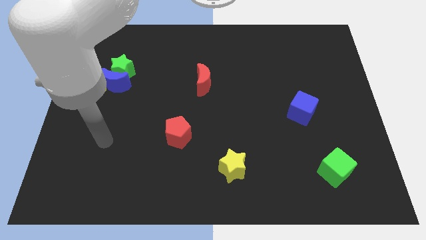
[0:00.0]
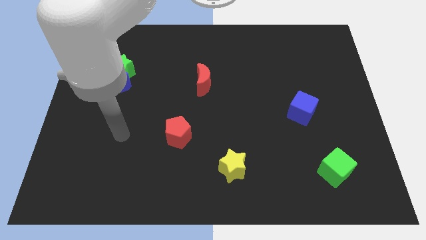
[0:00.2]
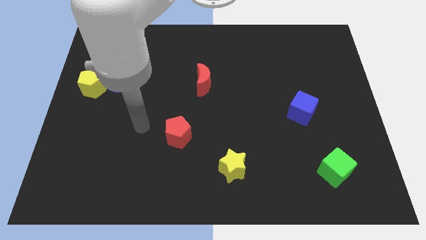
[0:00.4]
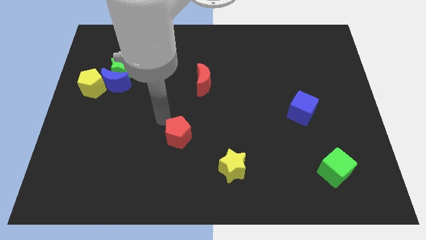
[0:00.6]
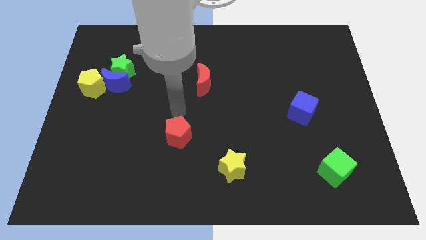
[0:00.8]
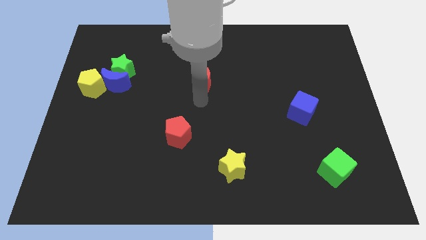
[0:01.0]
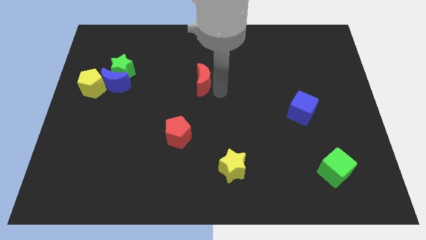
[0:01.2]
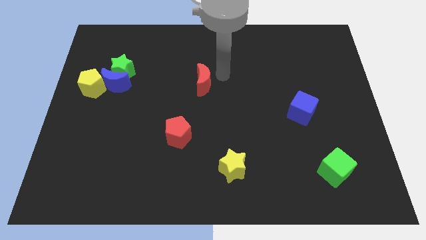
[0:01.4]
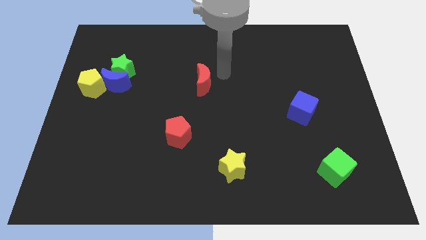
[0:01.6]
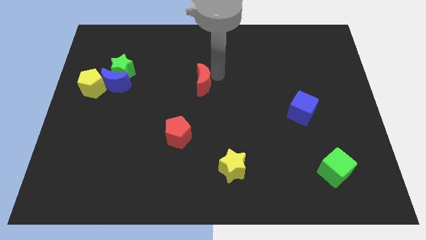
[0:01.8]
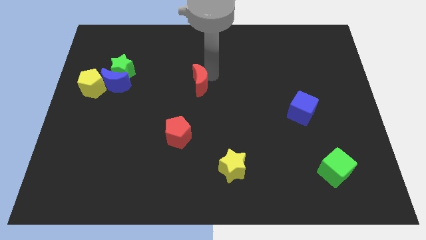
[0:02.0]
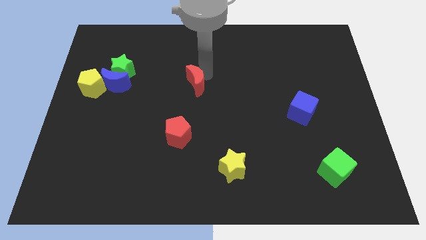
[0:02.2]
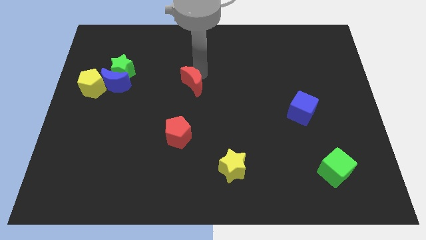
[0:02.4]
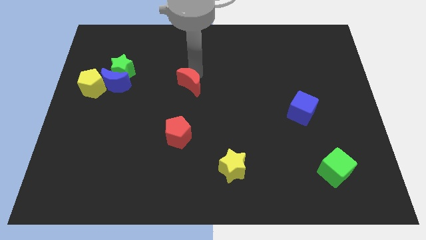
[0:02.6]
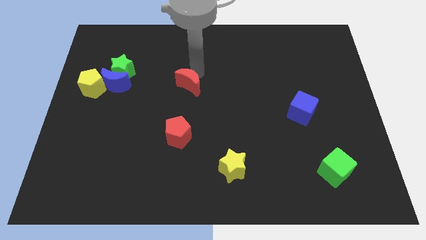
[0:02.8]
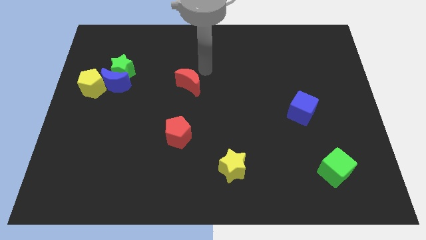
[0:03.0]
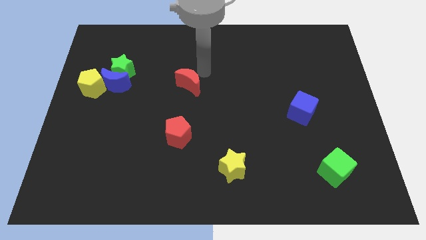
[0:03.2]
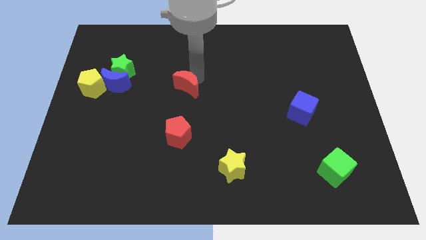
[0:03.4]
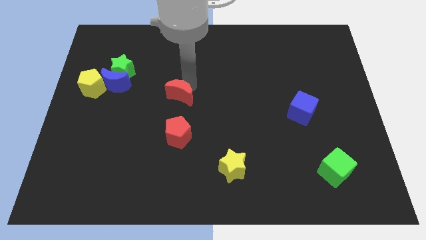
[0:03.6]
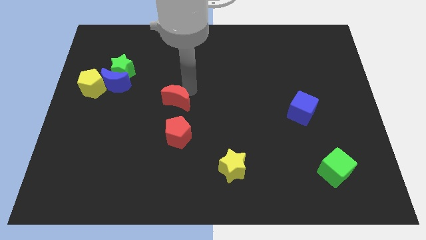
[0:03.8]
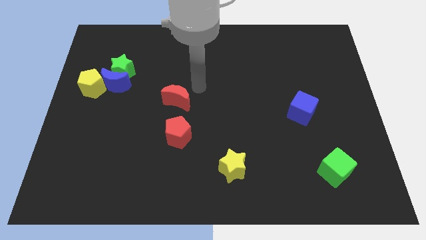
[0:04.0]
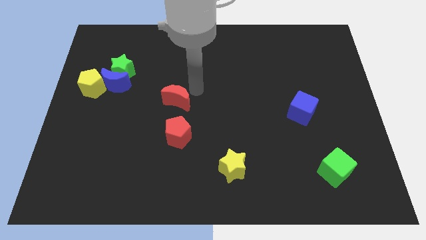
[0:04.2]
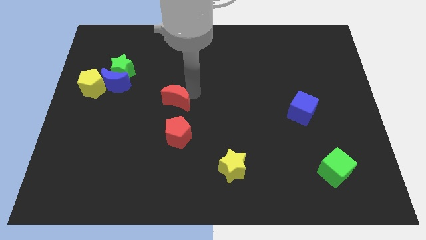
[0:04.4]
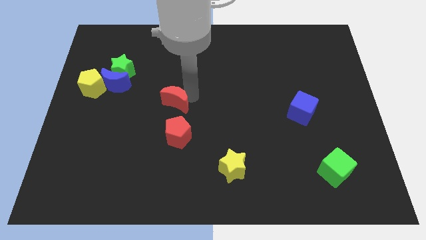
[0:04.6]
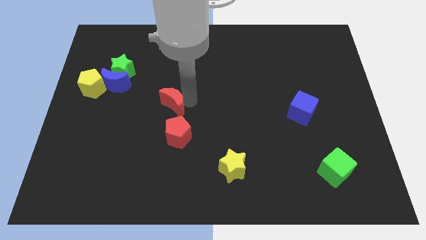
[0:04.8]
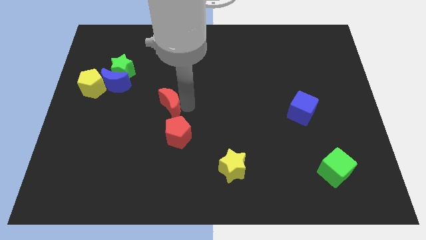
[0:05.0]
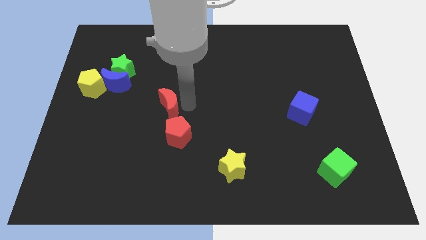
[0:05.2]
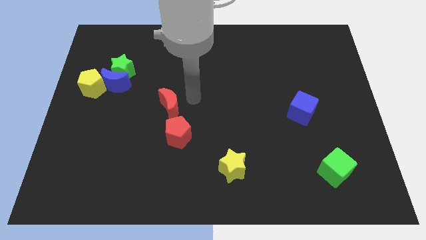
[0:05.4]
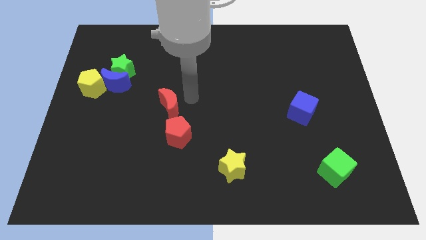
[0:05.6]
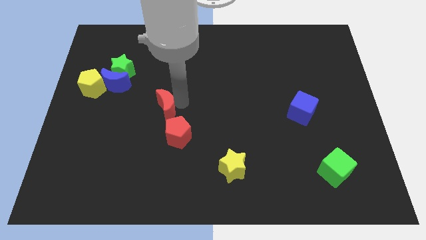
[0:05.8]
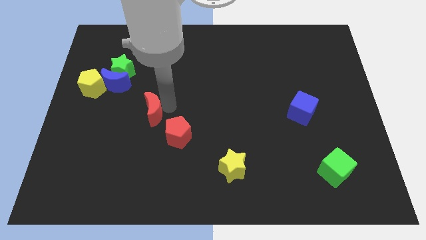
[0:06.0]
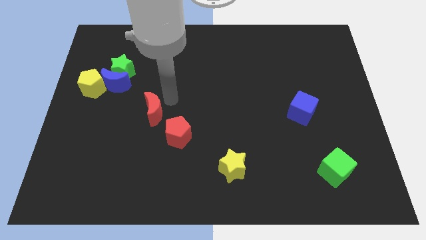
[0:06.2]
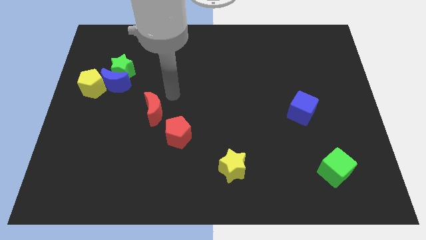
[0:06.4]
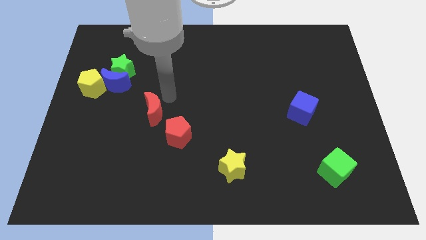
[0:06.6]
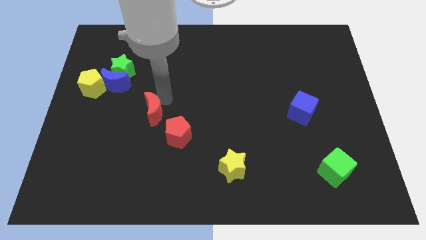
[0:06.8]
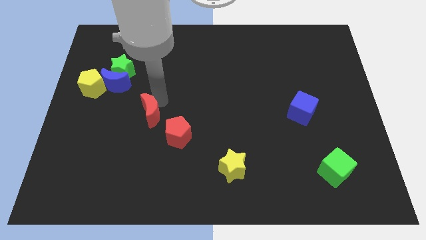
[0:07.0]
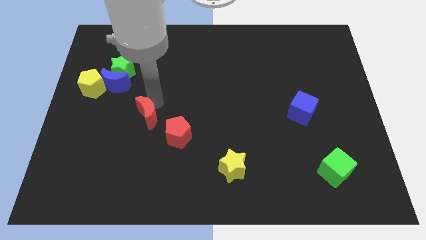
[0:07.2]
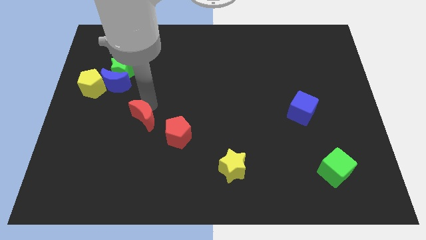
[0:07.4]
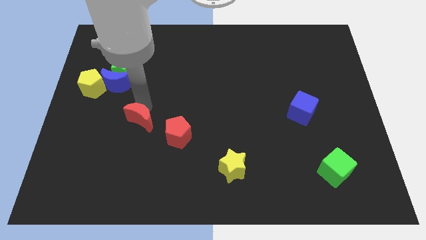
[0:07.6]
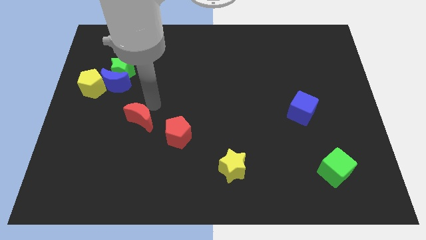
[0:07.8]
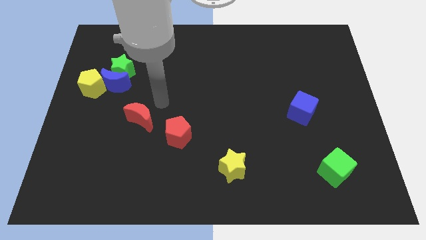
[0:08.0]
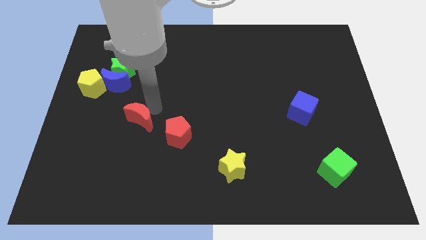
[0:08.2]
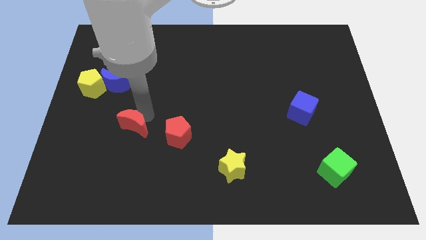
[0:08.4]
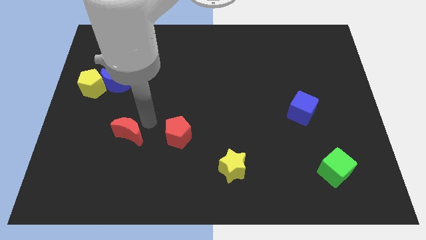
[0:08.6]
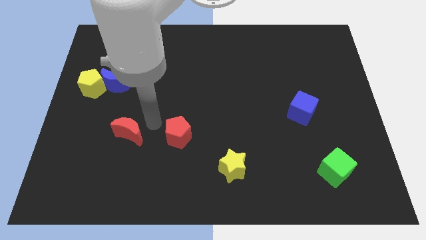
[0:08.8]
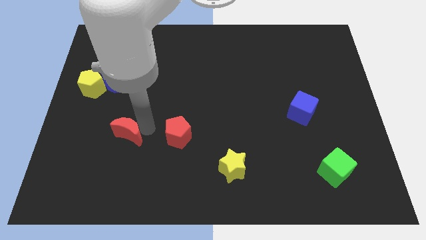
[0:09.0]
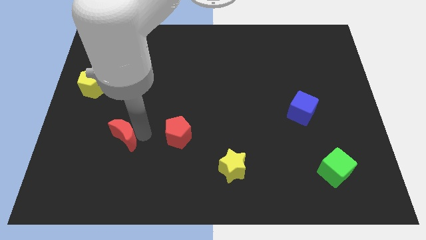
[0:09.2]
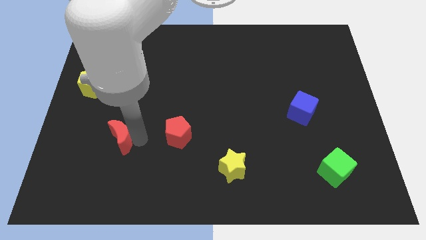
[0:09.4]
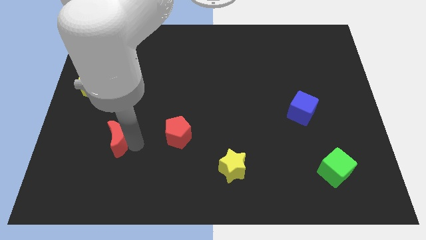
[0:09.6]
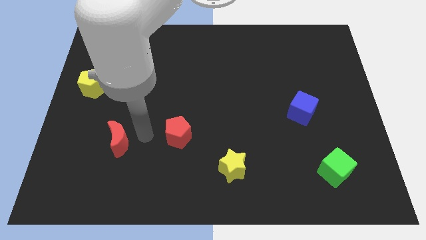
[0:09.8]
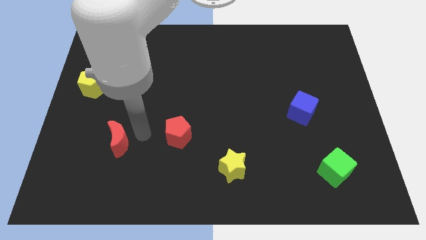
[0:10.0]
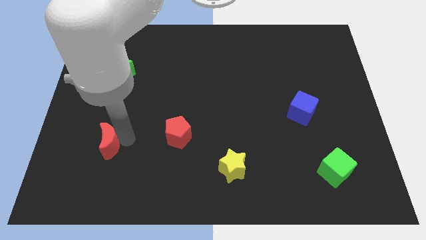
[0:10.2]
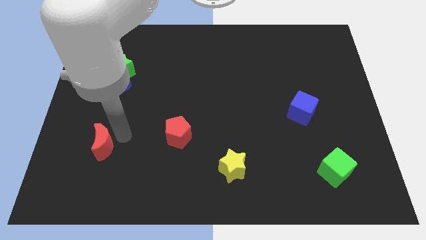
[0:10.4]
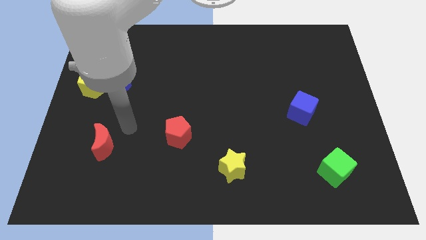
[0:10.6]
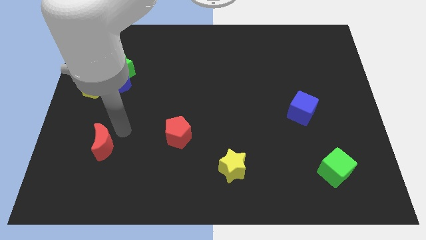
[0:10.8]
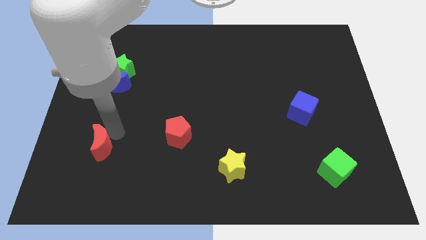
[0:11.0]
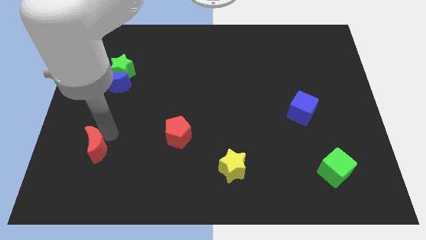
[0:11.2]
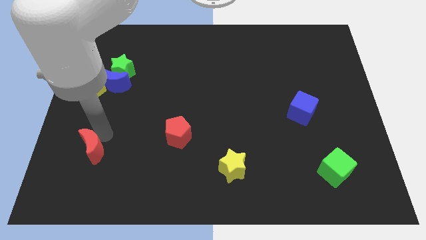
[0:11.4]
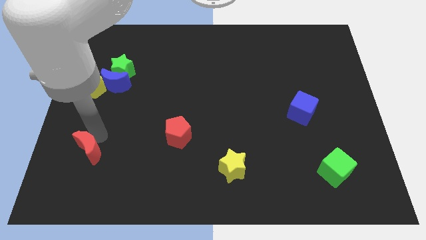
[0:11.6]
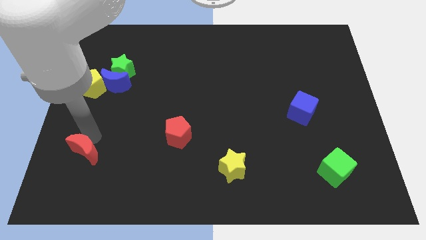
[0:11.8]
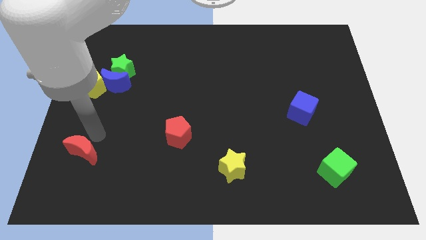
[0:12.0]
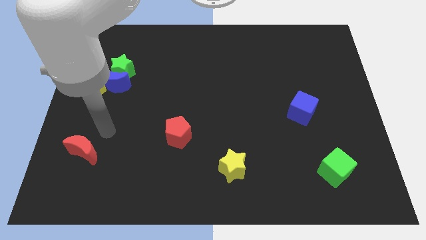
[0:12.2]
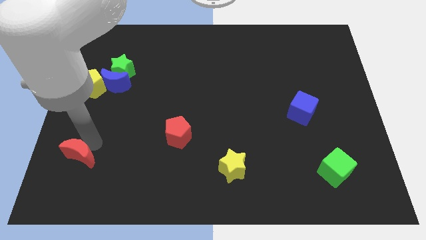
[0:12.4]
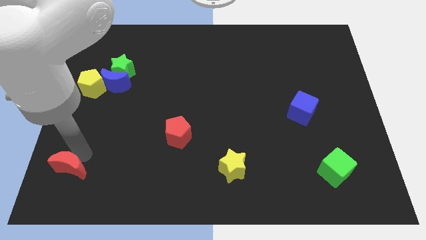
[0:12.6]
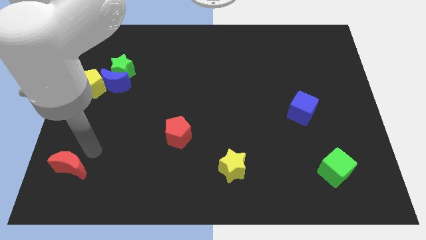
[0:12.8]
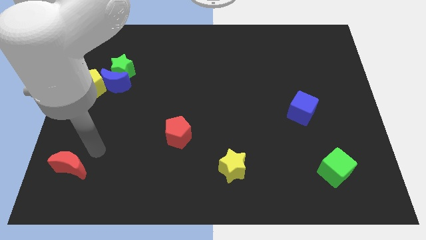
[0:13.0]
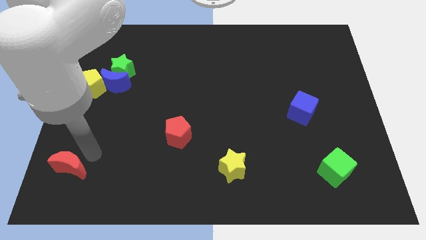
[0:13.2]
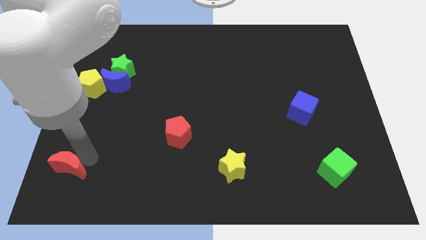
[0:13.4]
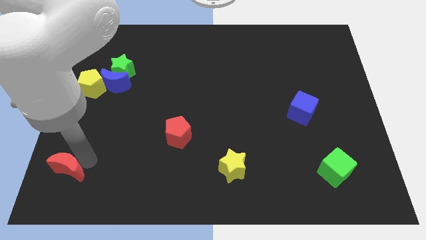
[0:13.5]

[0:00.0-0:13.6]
slide the red moon to the lower left corner
